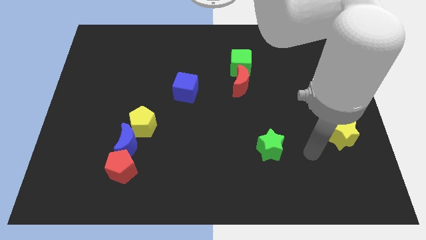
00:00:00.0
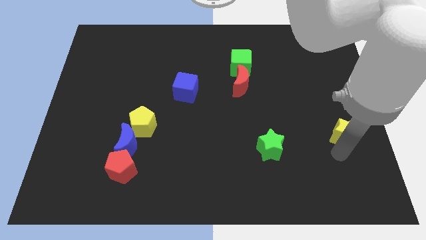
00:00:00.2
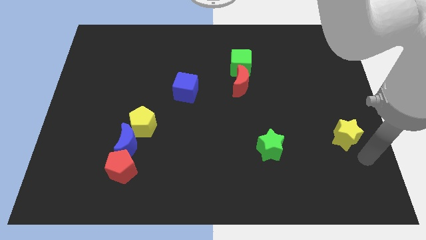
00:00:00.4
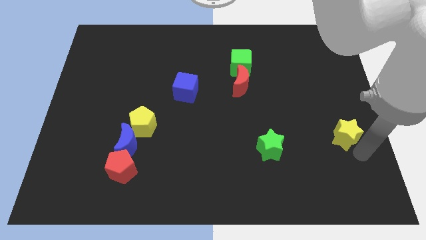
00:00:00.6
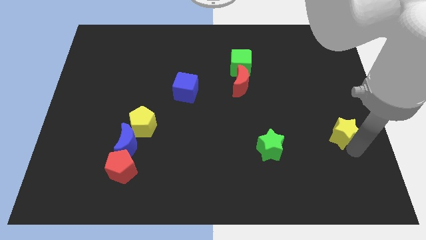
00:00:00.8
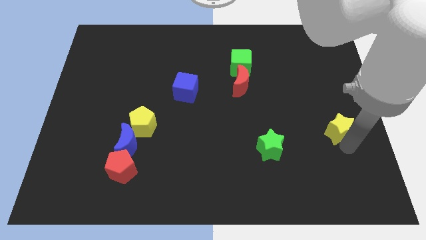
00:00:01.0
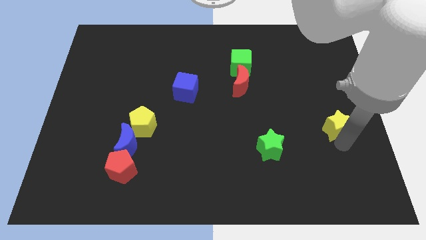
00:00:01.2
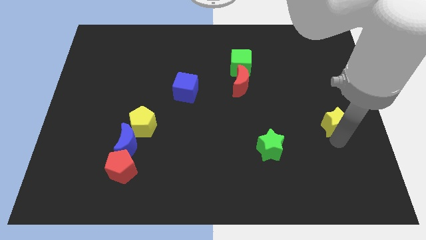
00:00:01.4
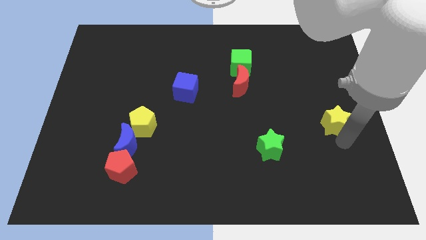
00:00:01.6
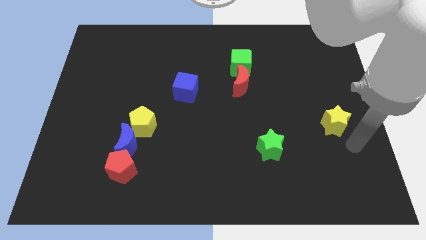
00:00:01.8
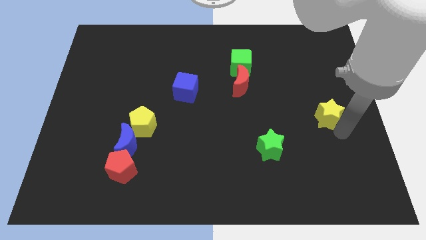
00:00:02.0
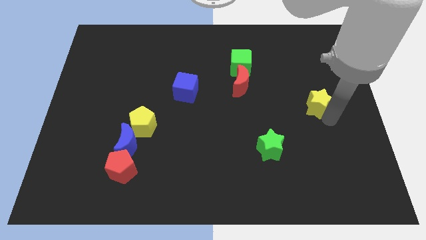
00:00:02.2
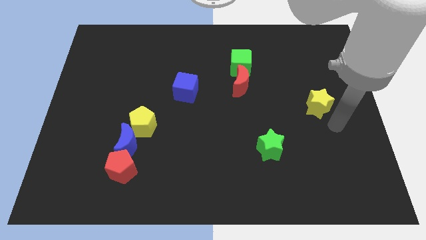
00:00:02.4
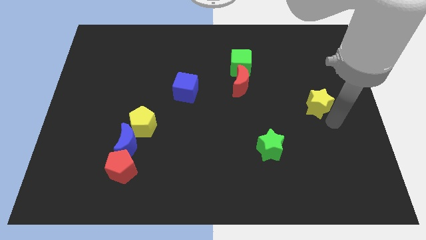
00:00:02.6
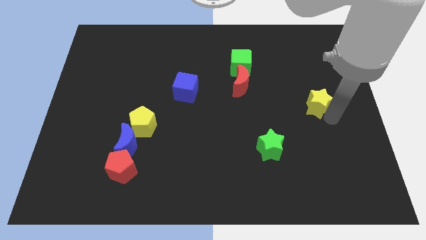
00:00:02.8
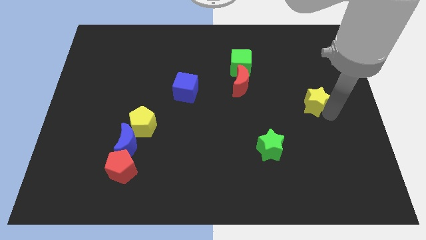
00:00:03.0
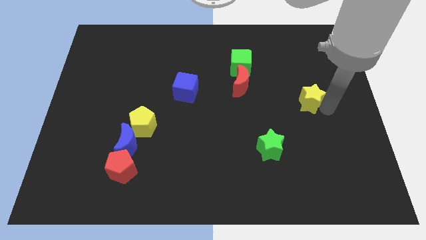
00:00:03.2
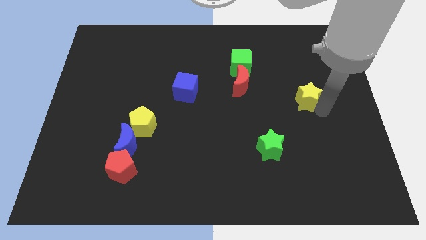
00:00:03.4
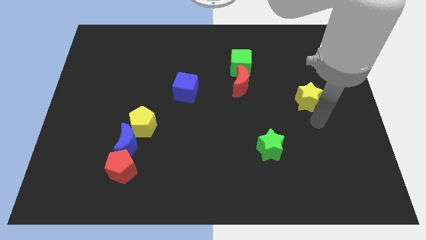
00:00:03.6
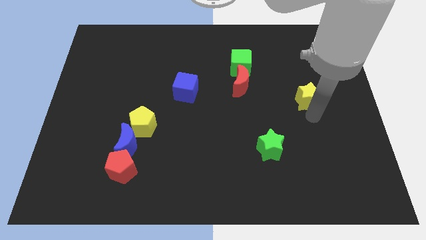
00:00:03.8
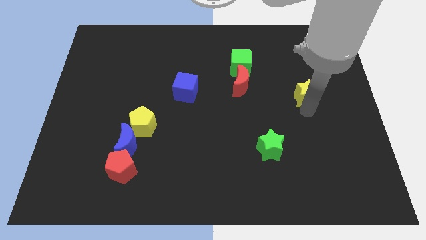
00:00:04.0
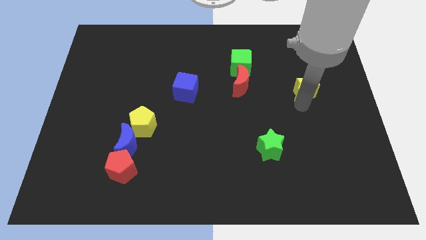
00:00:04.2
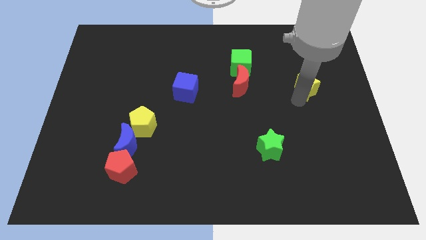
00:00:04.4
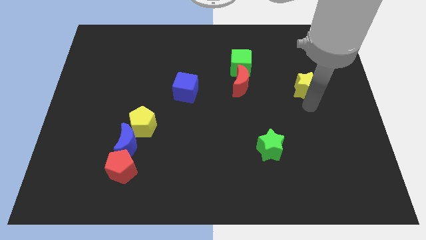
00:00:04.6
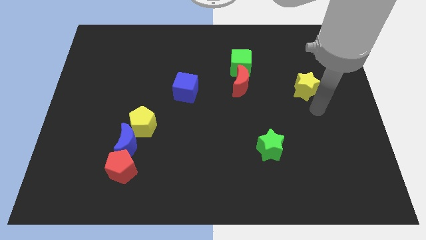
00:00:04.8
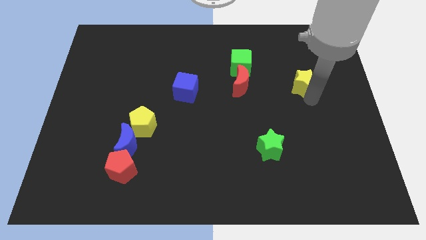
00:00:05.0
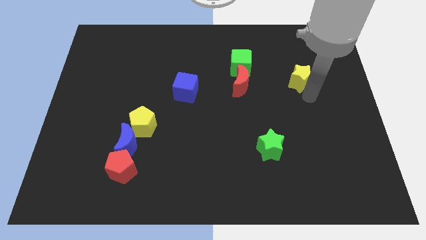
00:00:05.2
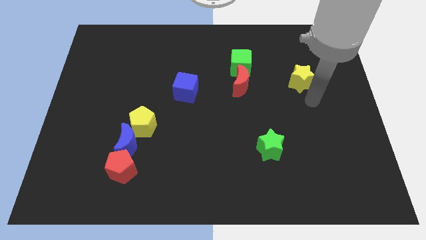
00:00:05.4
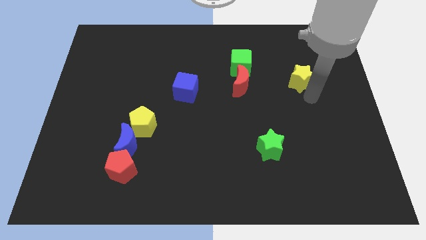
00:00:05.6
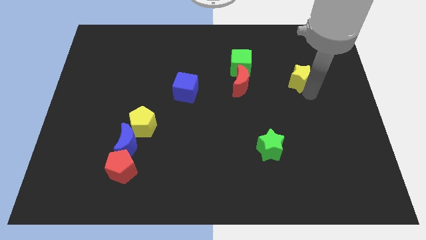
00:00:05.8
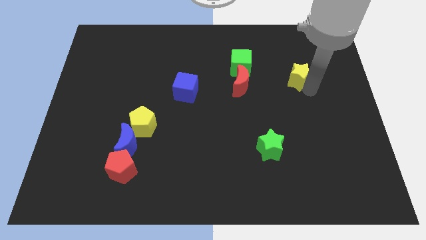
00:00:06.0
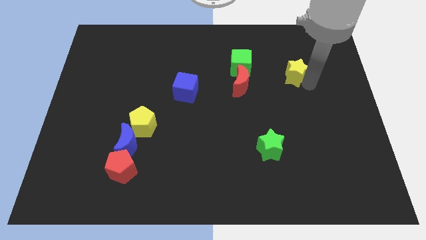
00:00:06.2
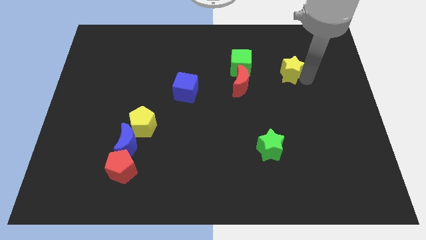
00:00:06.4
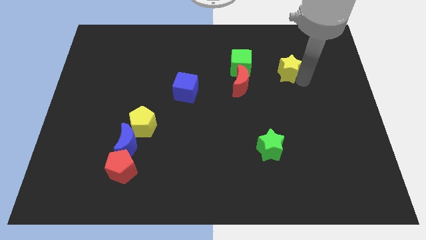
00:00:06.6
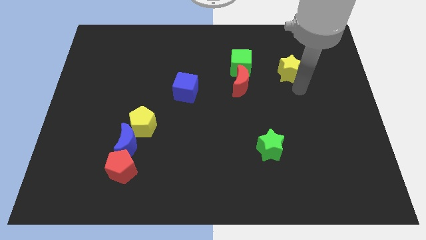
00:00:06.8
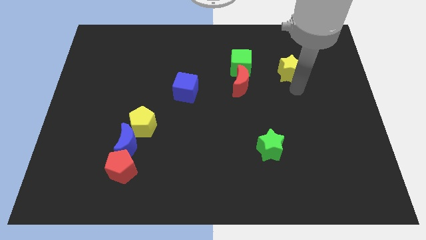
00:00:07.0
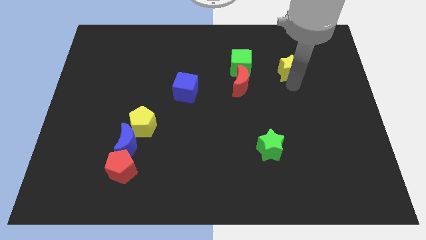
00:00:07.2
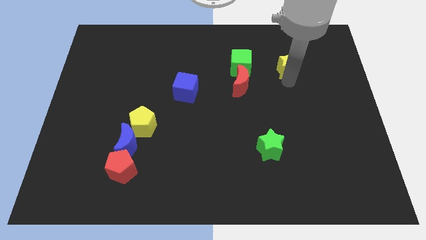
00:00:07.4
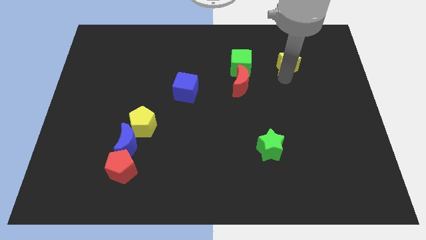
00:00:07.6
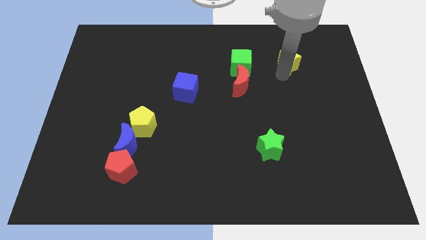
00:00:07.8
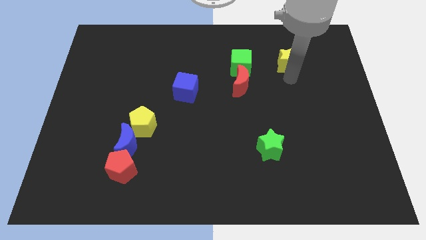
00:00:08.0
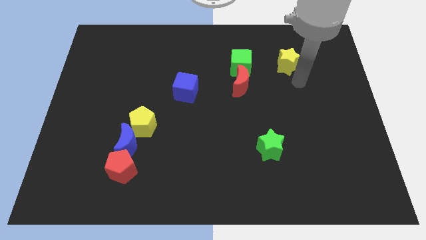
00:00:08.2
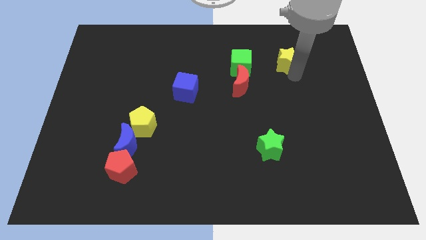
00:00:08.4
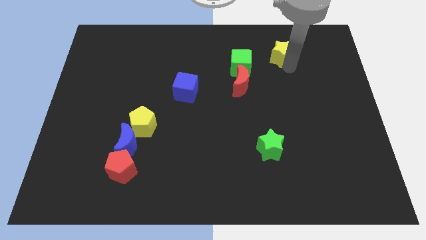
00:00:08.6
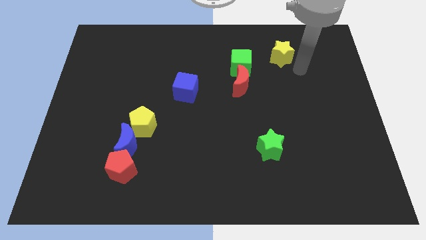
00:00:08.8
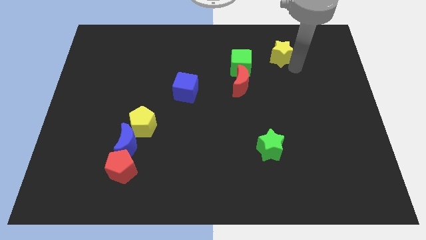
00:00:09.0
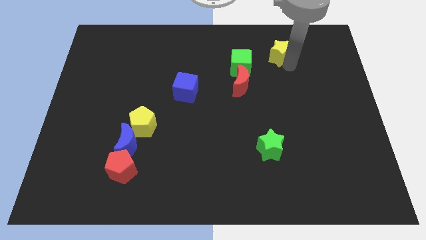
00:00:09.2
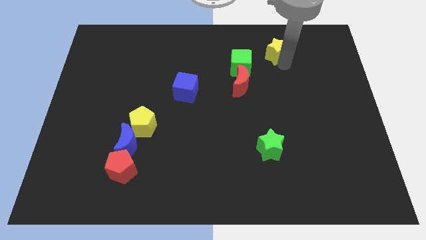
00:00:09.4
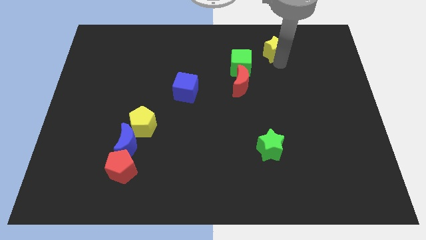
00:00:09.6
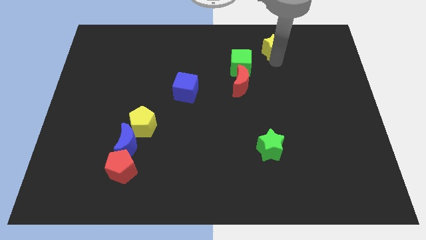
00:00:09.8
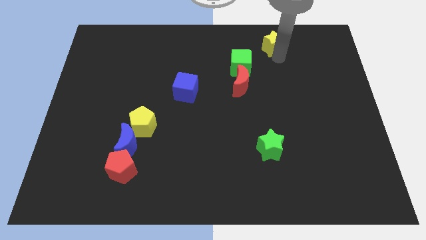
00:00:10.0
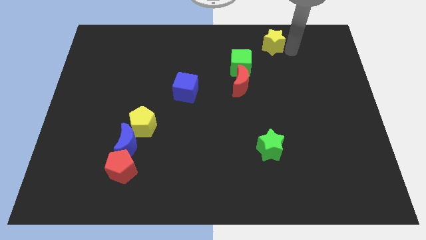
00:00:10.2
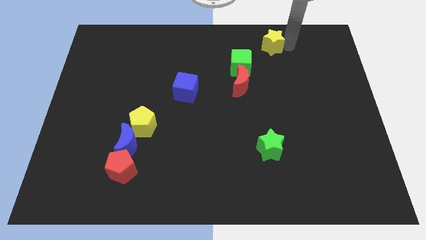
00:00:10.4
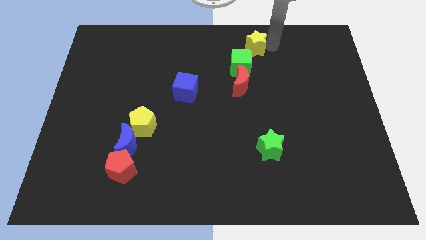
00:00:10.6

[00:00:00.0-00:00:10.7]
push the yellow star to the top side of the red moon

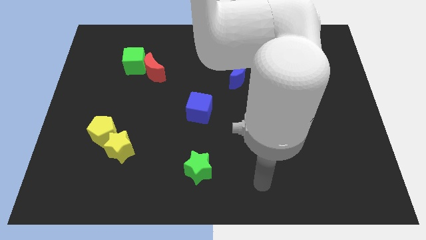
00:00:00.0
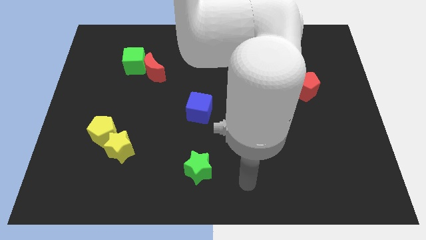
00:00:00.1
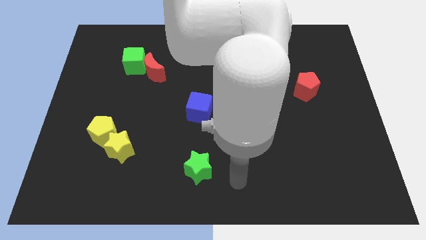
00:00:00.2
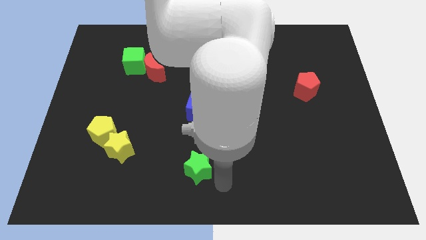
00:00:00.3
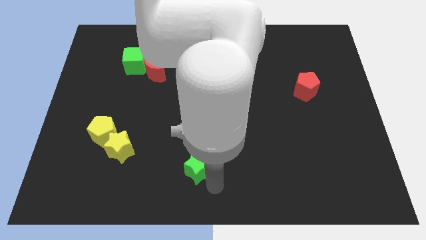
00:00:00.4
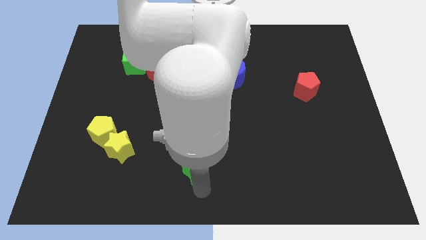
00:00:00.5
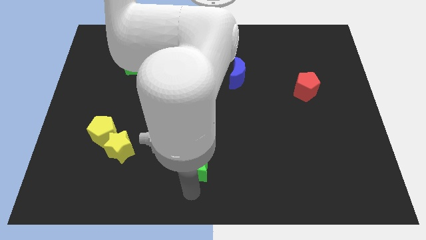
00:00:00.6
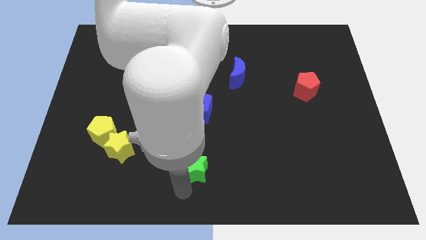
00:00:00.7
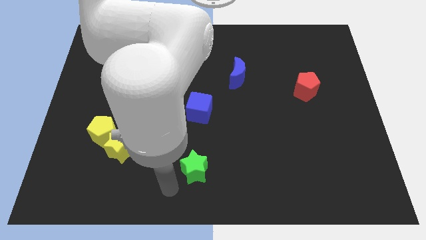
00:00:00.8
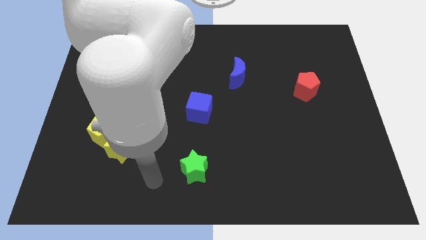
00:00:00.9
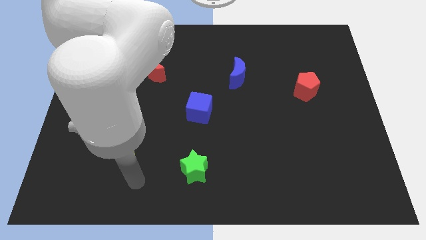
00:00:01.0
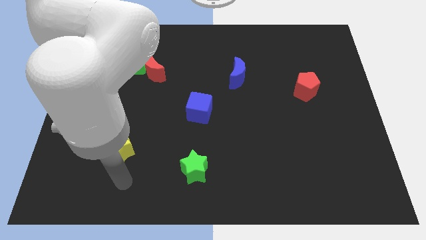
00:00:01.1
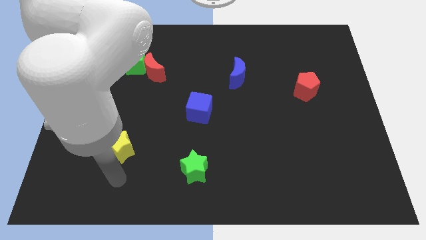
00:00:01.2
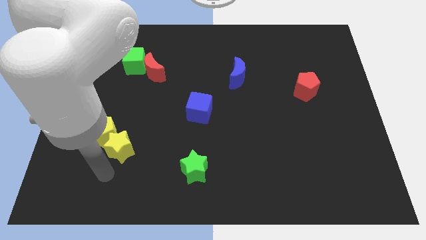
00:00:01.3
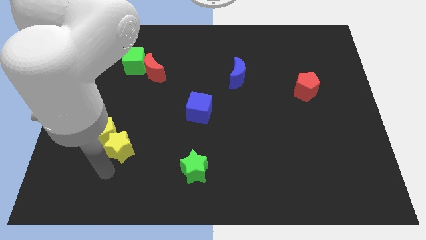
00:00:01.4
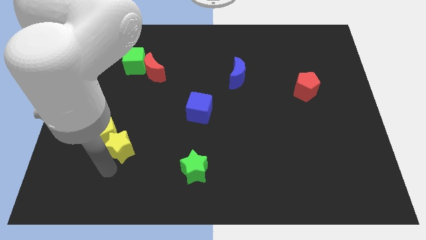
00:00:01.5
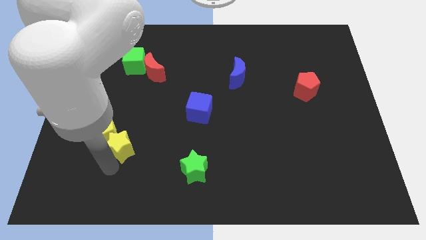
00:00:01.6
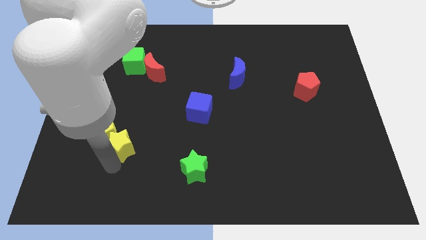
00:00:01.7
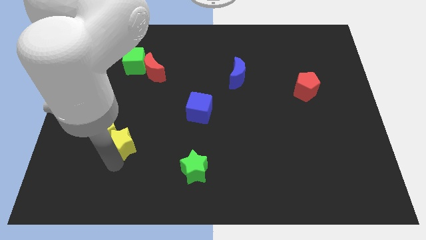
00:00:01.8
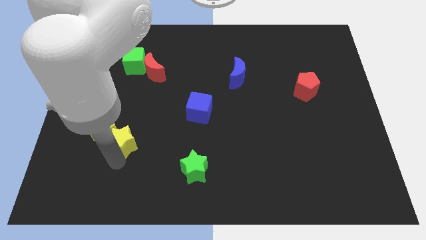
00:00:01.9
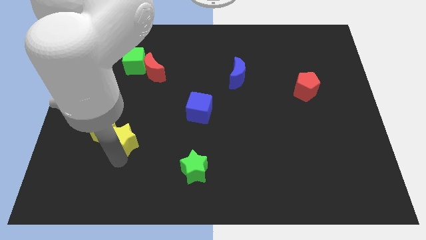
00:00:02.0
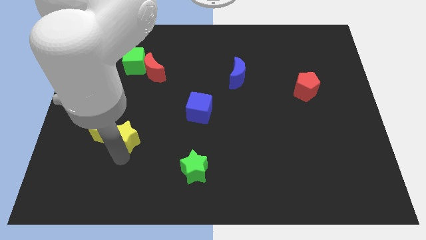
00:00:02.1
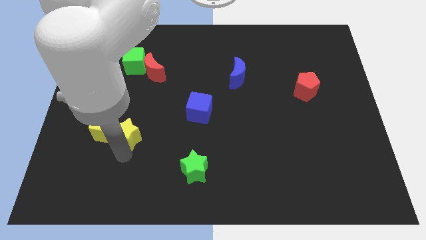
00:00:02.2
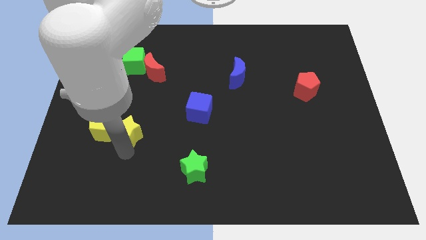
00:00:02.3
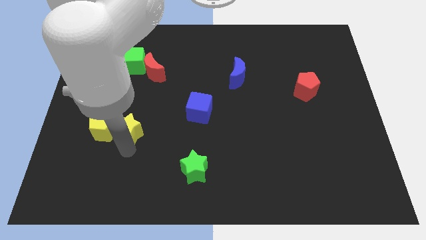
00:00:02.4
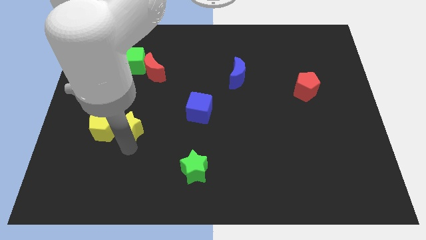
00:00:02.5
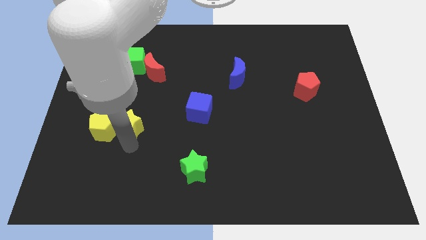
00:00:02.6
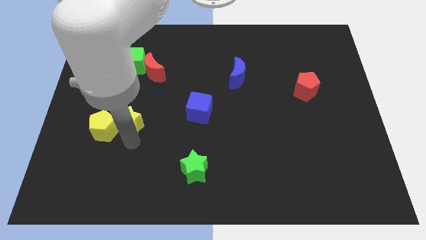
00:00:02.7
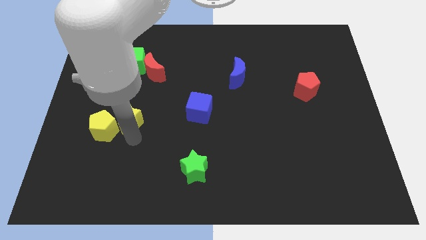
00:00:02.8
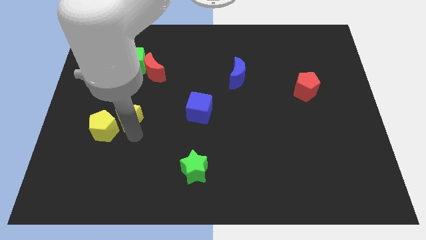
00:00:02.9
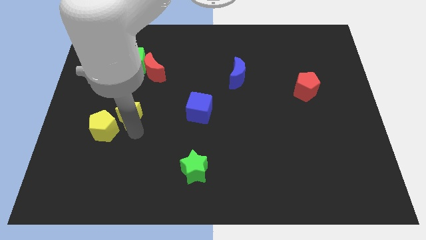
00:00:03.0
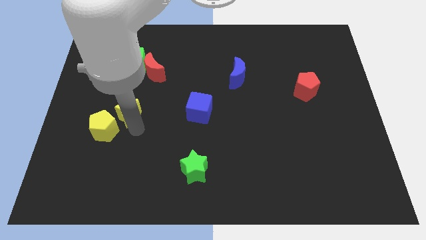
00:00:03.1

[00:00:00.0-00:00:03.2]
push the yellow star to the bottom side of the green cube
